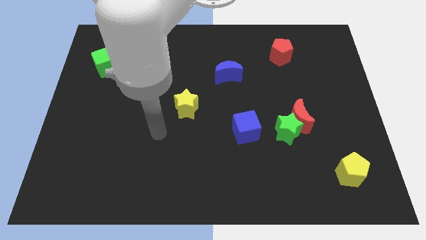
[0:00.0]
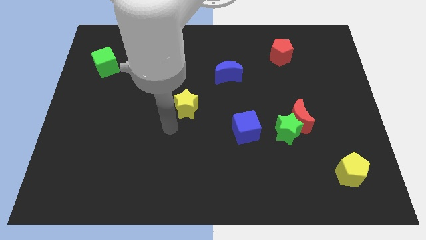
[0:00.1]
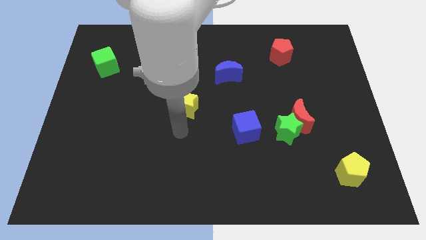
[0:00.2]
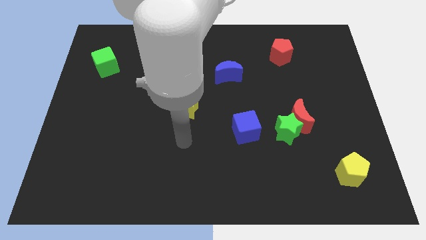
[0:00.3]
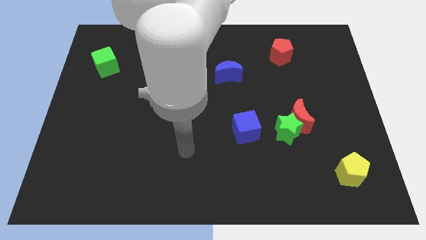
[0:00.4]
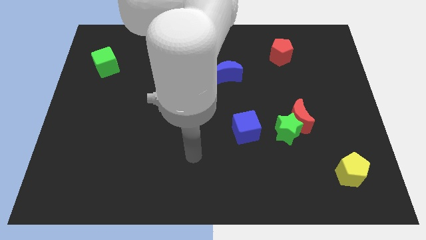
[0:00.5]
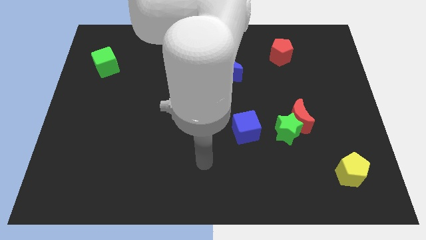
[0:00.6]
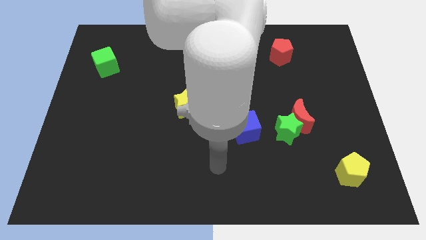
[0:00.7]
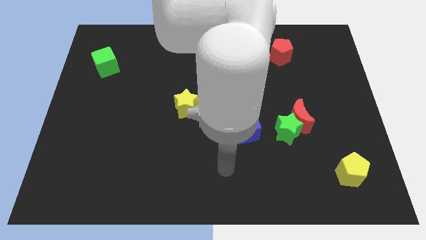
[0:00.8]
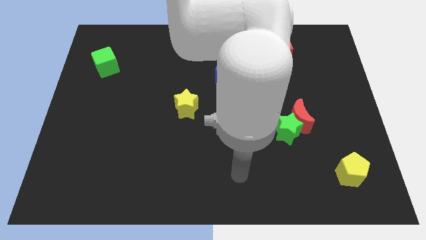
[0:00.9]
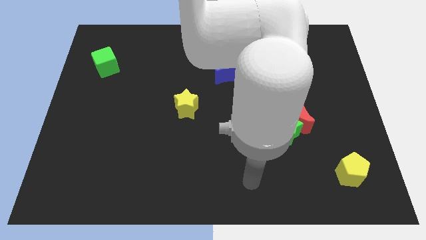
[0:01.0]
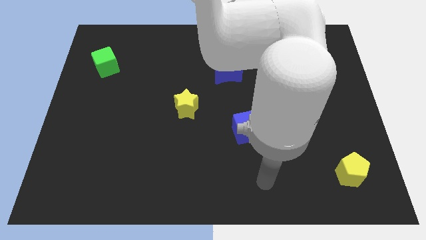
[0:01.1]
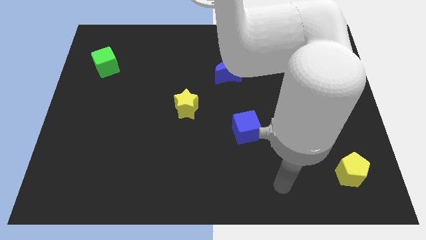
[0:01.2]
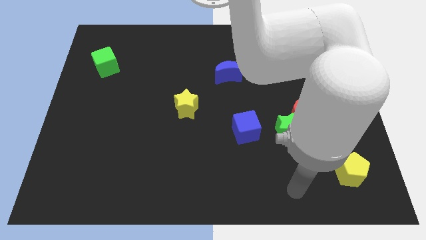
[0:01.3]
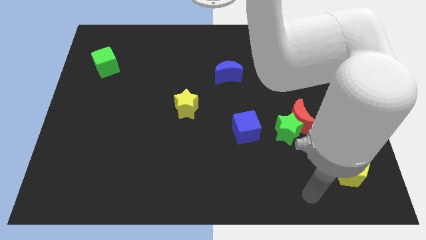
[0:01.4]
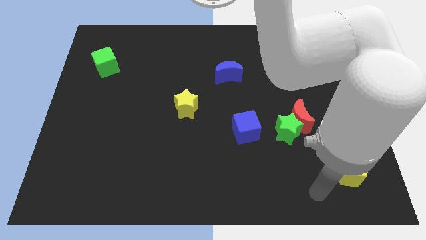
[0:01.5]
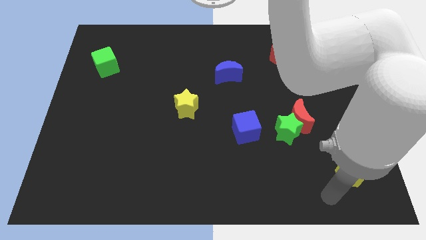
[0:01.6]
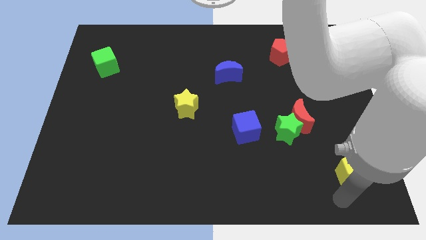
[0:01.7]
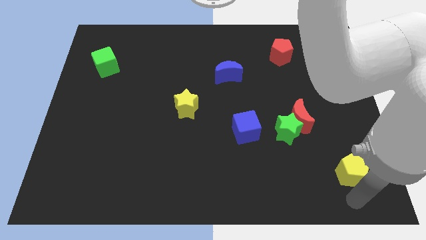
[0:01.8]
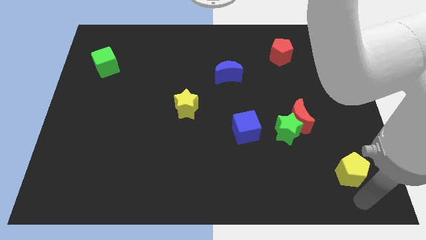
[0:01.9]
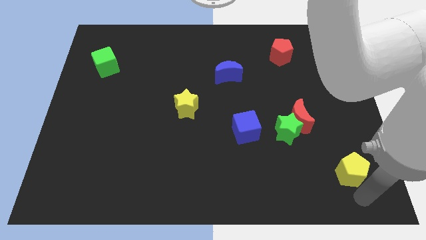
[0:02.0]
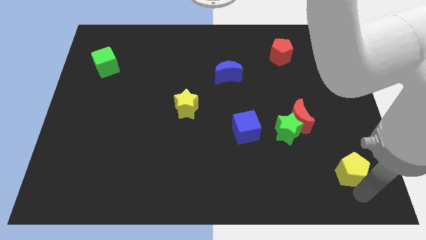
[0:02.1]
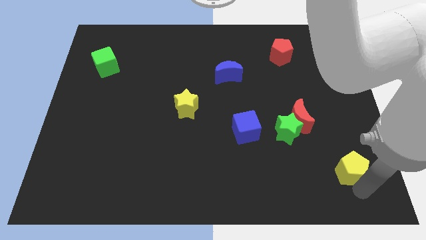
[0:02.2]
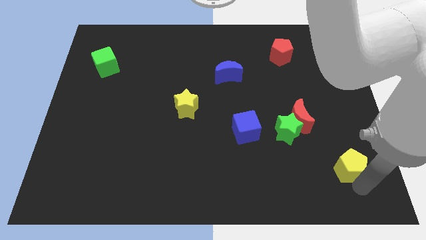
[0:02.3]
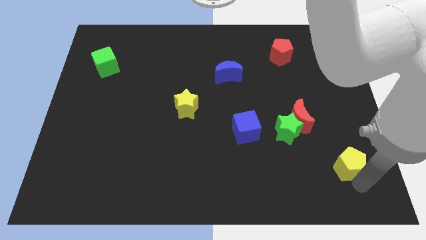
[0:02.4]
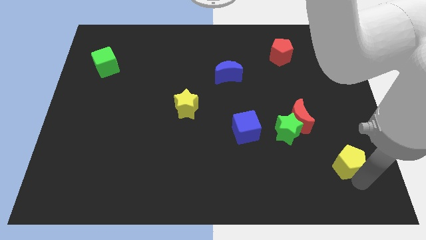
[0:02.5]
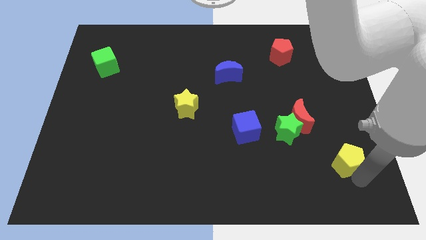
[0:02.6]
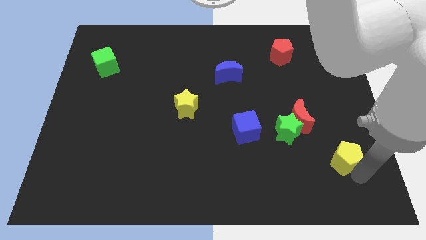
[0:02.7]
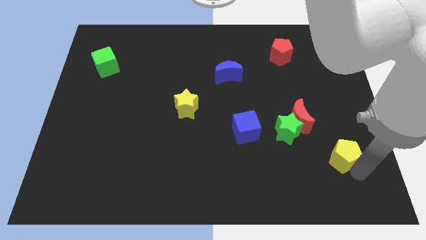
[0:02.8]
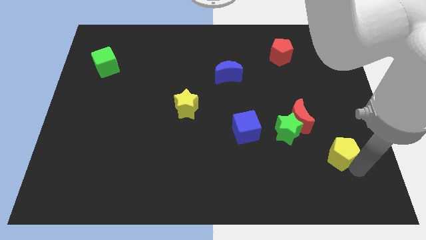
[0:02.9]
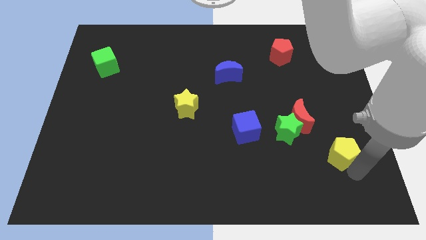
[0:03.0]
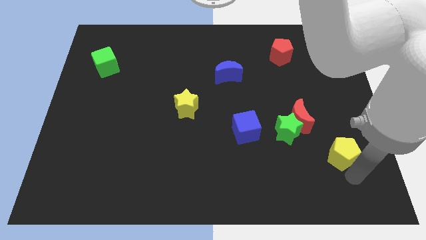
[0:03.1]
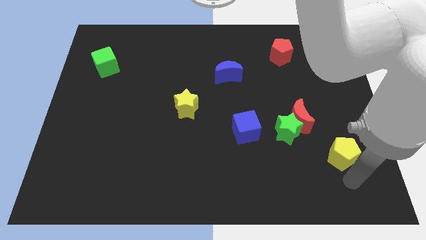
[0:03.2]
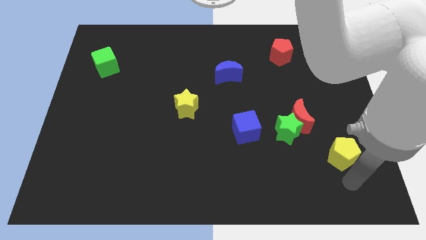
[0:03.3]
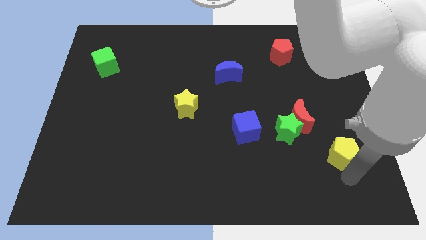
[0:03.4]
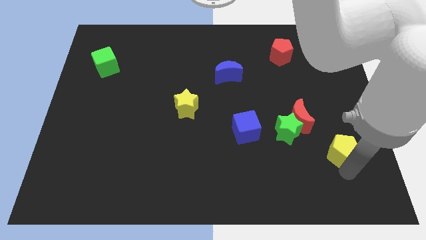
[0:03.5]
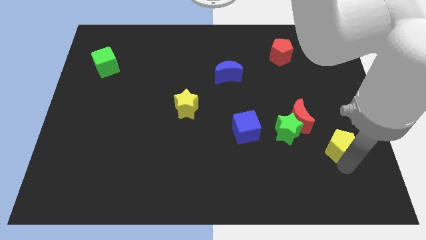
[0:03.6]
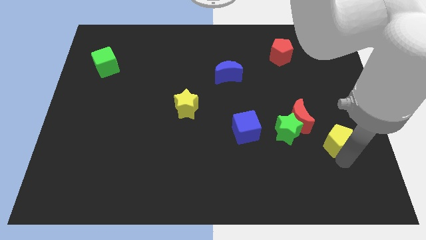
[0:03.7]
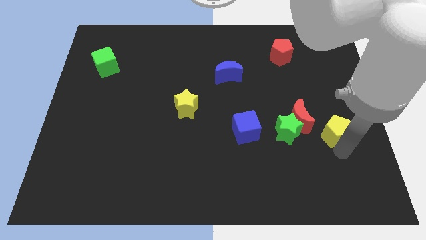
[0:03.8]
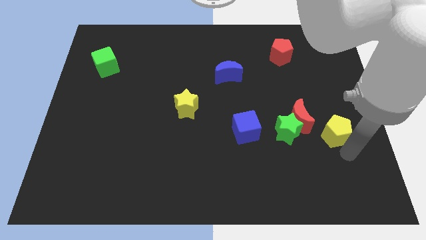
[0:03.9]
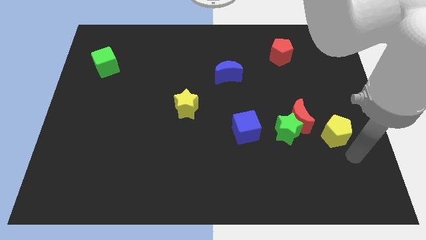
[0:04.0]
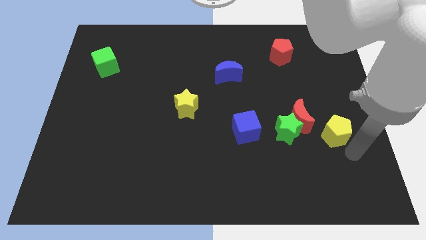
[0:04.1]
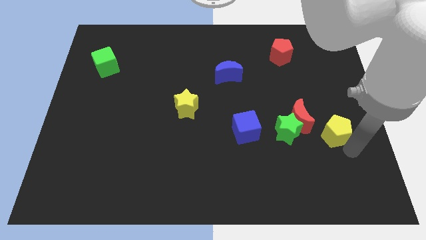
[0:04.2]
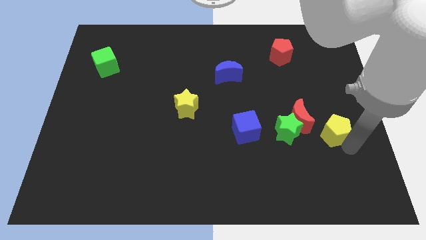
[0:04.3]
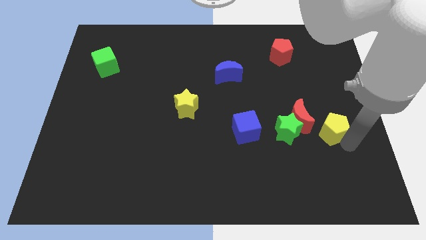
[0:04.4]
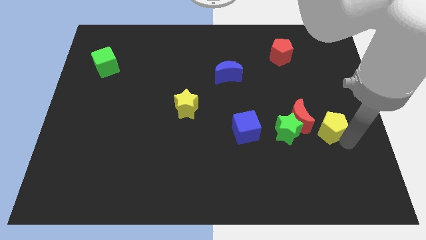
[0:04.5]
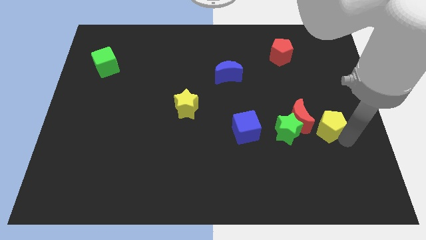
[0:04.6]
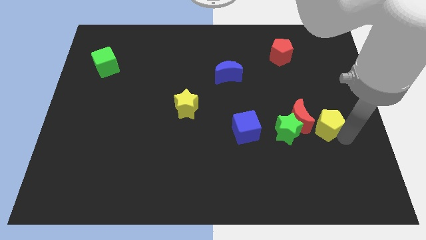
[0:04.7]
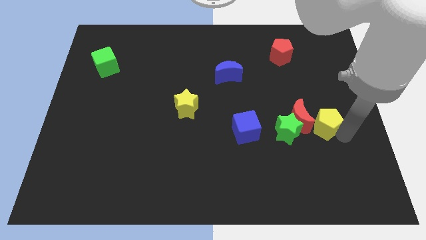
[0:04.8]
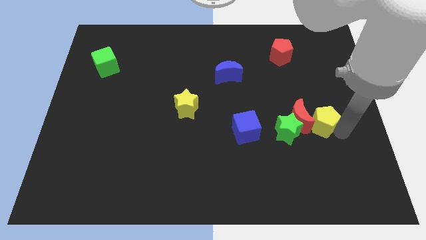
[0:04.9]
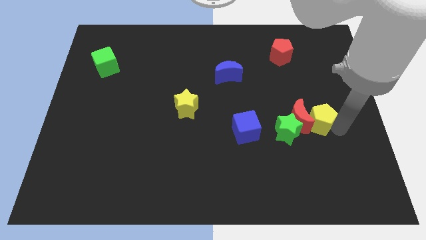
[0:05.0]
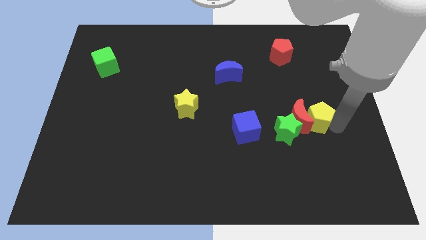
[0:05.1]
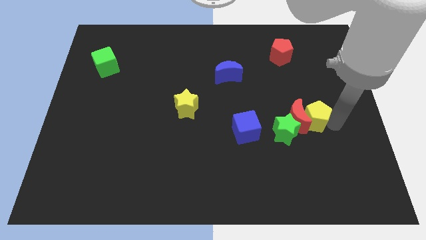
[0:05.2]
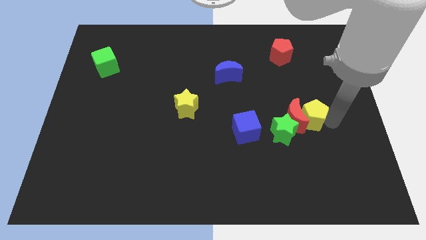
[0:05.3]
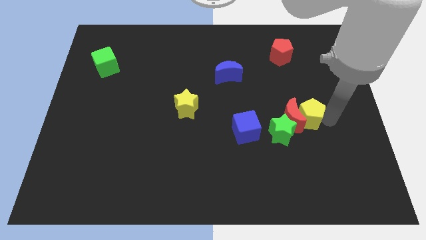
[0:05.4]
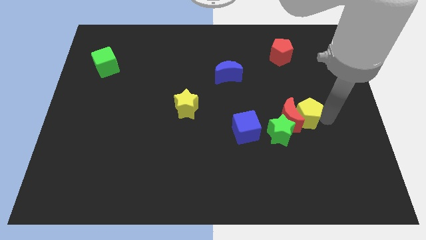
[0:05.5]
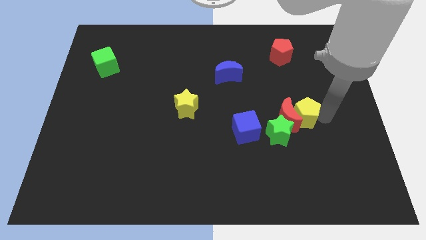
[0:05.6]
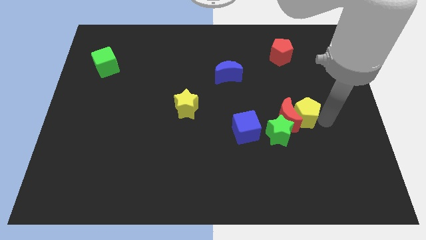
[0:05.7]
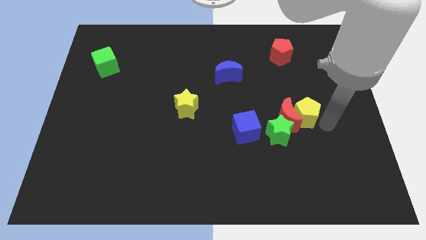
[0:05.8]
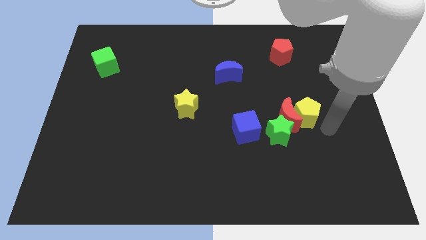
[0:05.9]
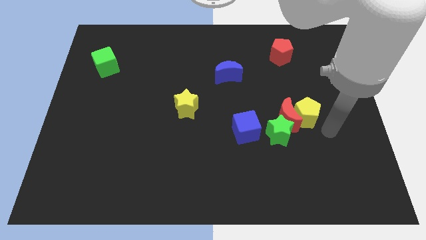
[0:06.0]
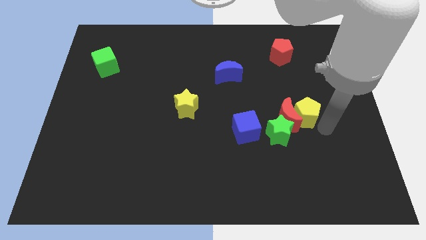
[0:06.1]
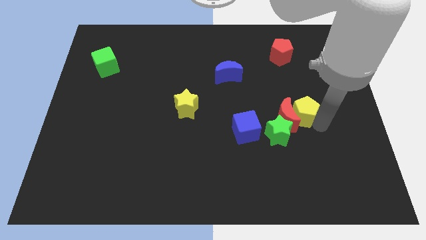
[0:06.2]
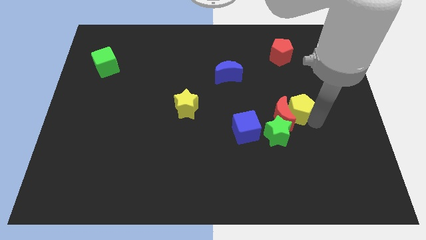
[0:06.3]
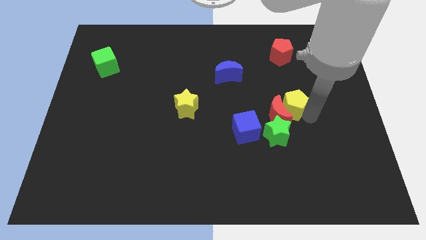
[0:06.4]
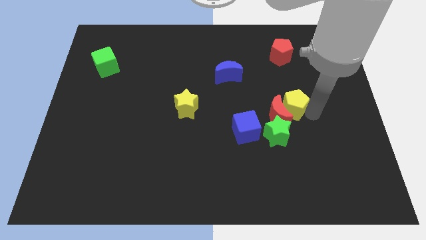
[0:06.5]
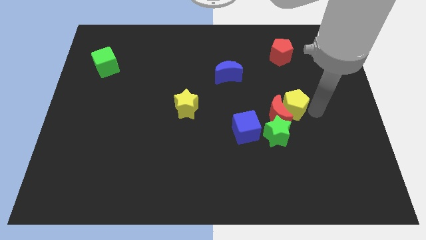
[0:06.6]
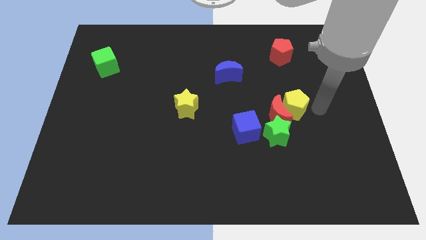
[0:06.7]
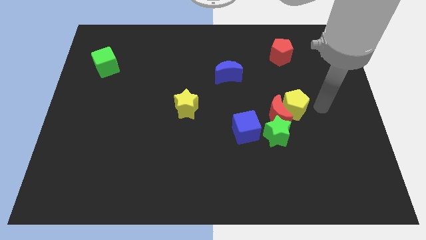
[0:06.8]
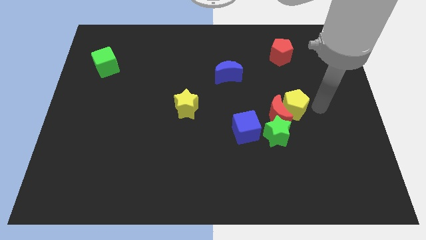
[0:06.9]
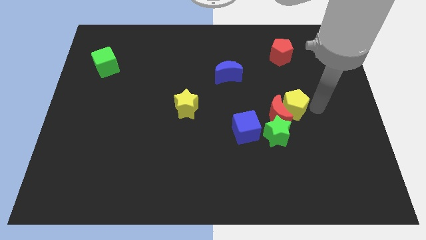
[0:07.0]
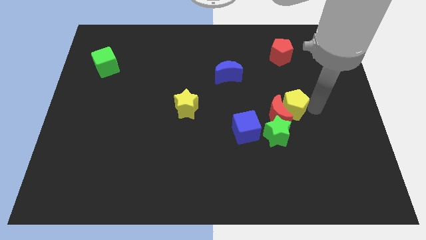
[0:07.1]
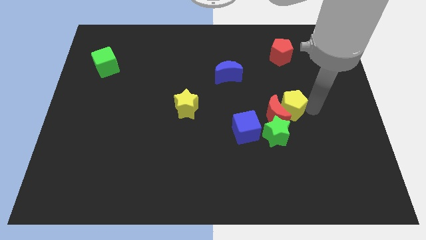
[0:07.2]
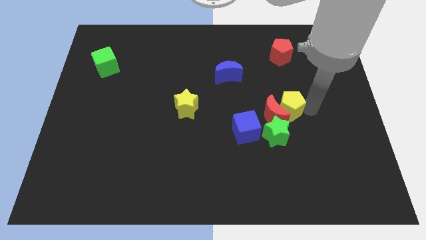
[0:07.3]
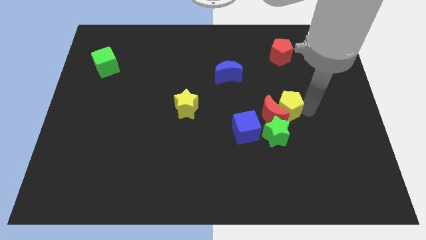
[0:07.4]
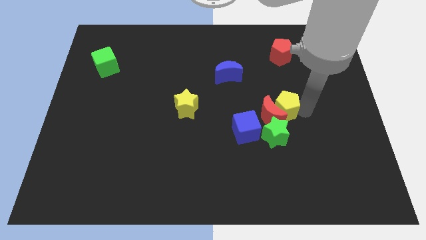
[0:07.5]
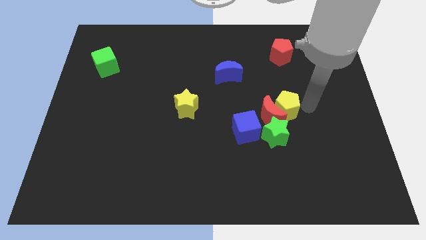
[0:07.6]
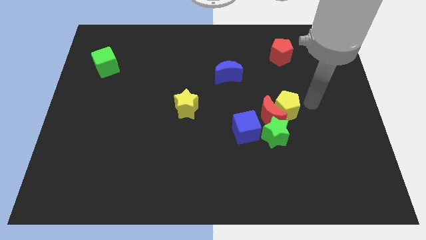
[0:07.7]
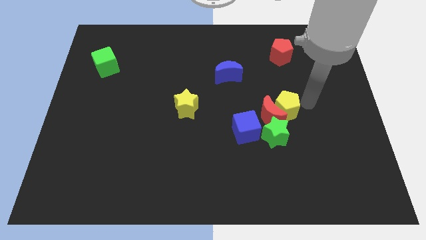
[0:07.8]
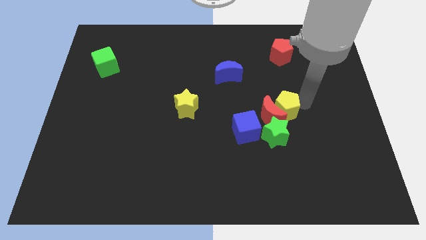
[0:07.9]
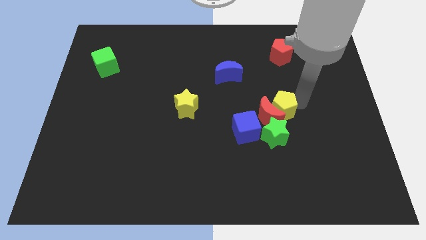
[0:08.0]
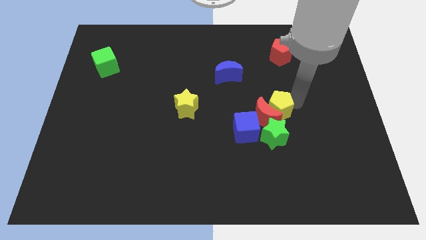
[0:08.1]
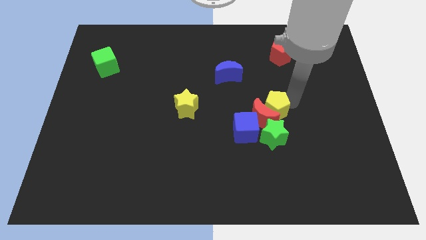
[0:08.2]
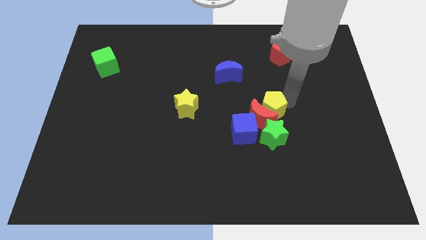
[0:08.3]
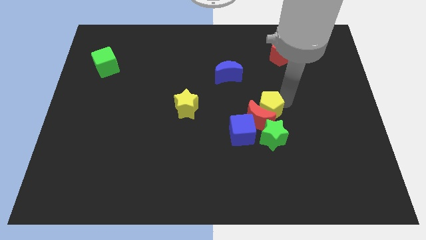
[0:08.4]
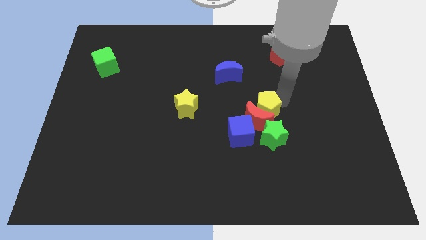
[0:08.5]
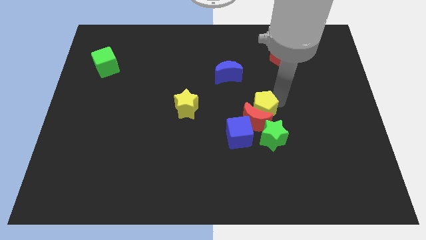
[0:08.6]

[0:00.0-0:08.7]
push the yellow pentagon to the top left side of the green star
